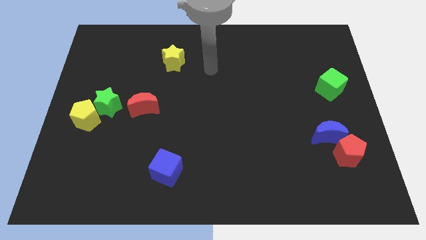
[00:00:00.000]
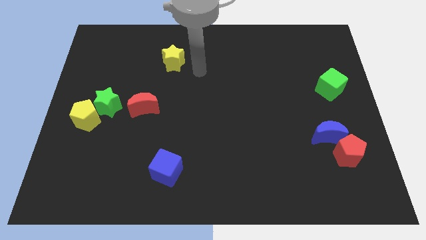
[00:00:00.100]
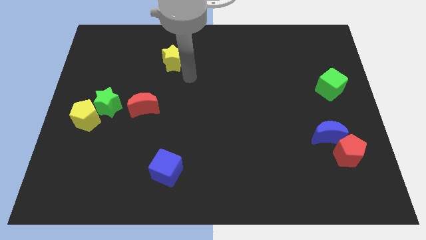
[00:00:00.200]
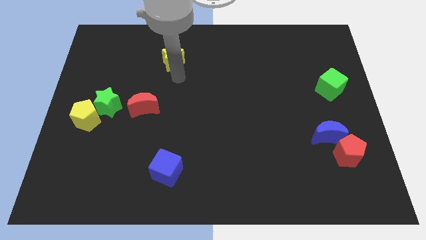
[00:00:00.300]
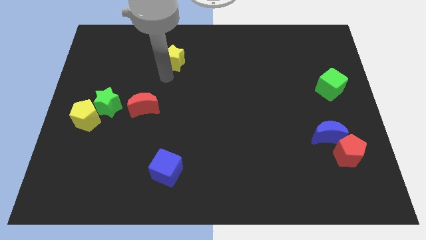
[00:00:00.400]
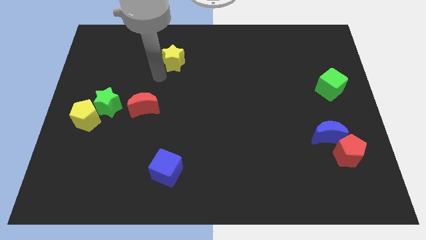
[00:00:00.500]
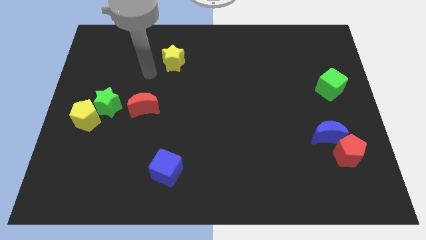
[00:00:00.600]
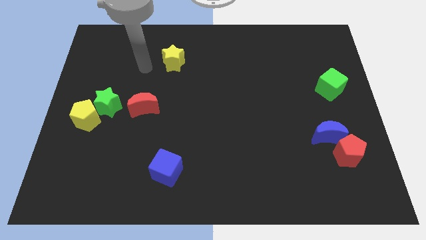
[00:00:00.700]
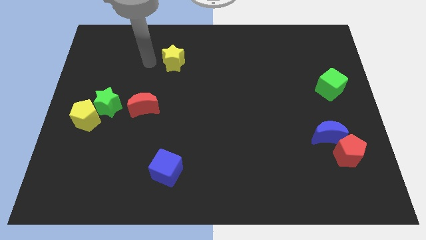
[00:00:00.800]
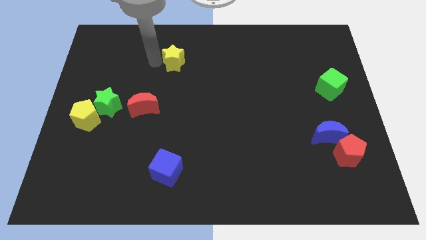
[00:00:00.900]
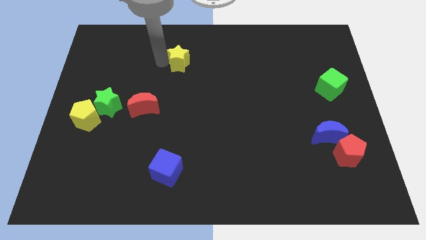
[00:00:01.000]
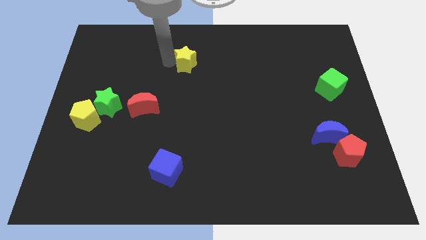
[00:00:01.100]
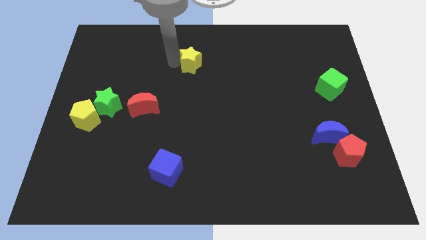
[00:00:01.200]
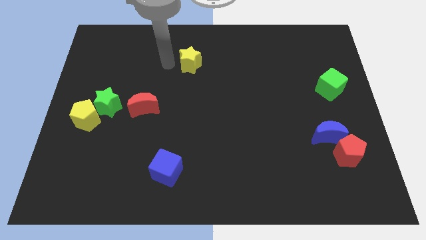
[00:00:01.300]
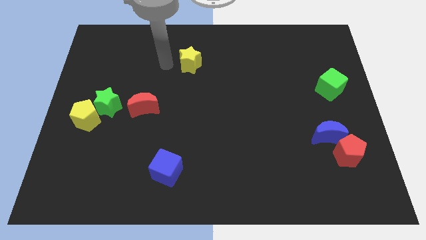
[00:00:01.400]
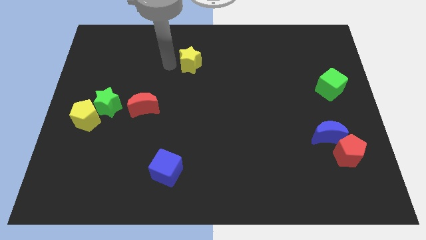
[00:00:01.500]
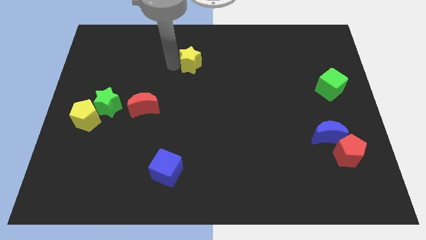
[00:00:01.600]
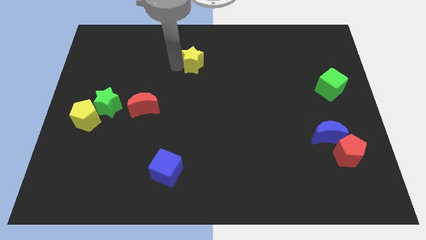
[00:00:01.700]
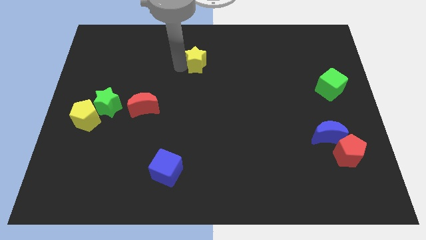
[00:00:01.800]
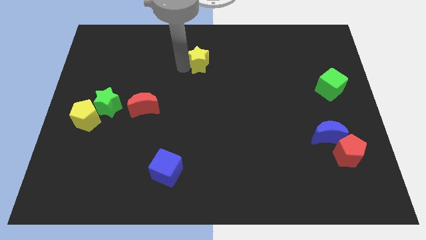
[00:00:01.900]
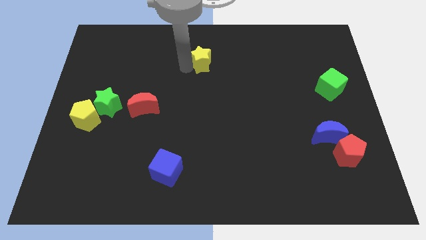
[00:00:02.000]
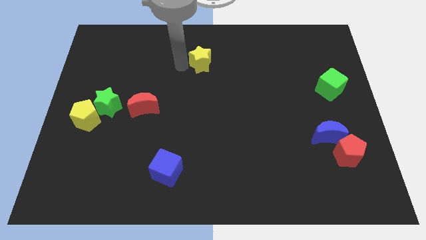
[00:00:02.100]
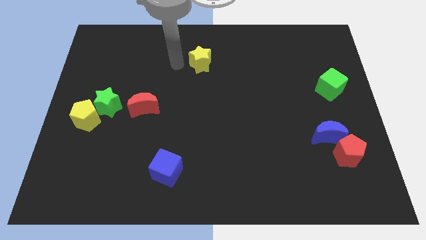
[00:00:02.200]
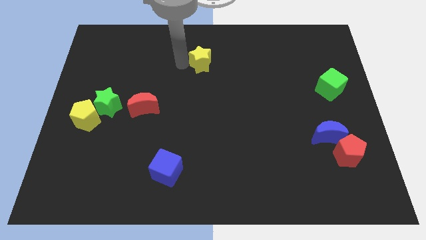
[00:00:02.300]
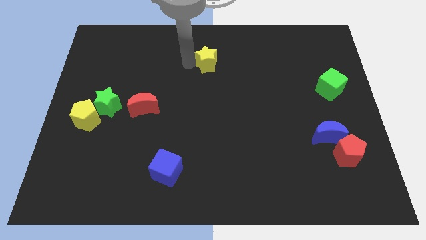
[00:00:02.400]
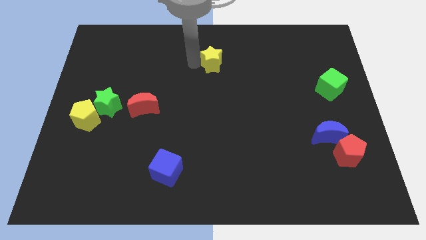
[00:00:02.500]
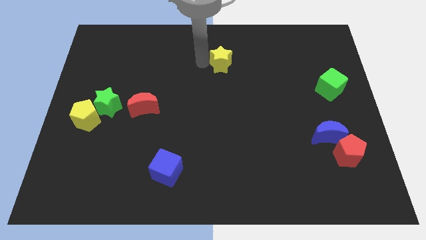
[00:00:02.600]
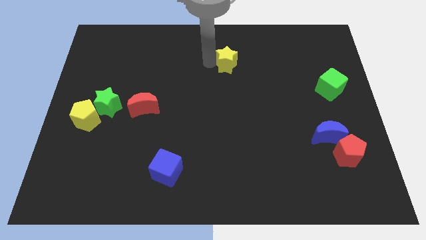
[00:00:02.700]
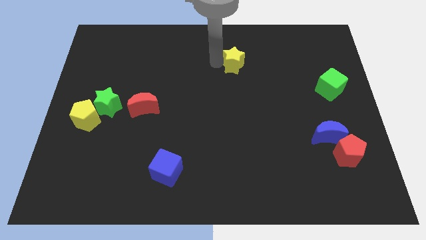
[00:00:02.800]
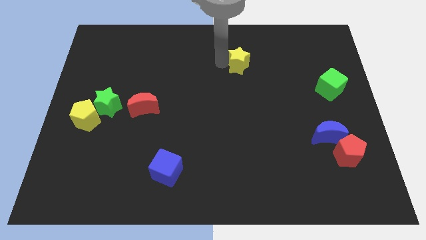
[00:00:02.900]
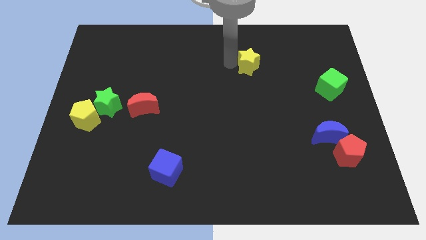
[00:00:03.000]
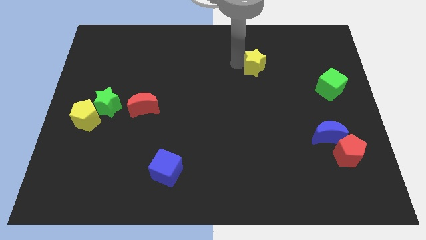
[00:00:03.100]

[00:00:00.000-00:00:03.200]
slide the yellow star to the right

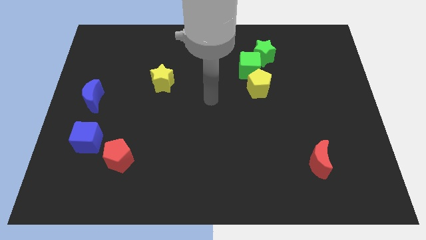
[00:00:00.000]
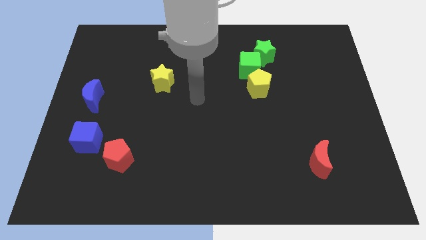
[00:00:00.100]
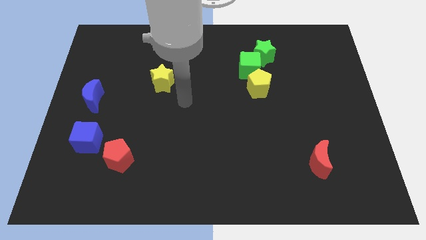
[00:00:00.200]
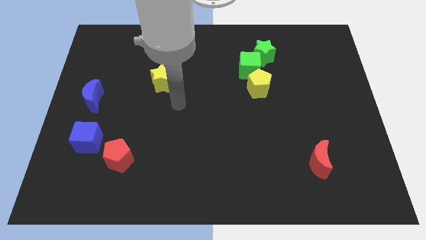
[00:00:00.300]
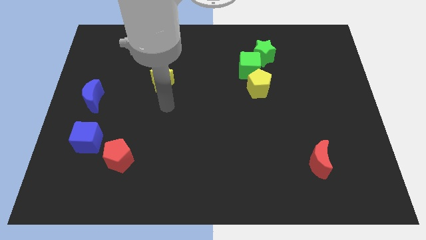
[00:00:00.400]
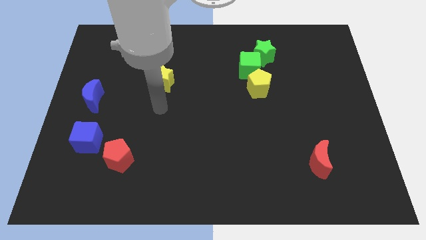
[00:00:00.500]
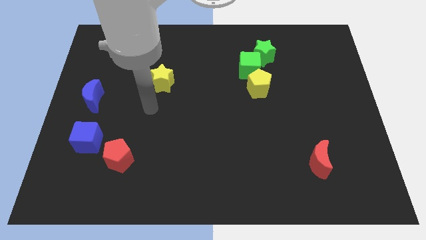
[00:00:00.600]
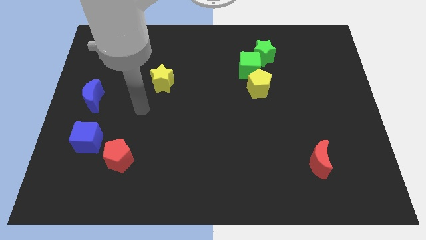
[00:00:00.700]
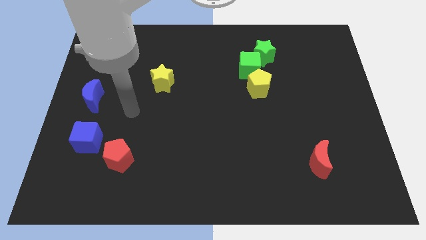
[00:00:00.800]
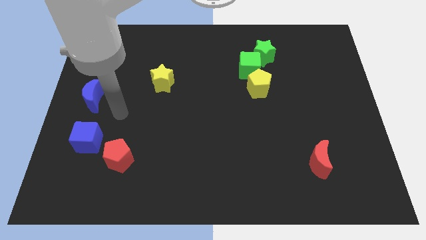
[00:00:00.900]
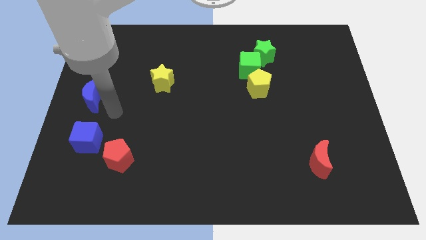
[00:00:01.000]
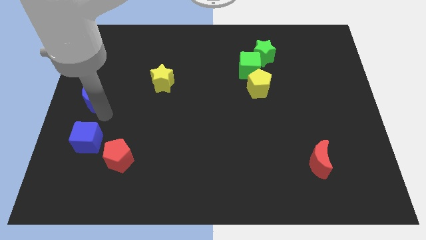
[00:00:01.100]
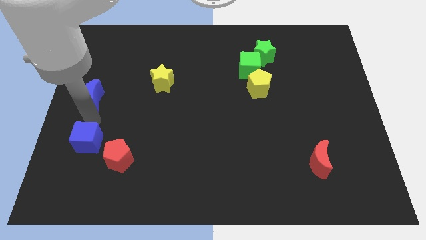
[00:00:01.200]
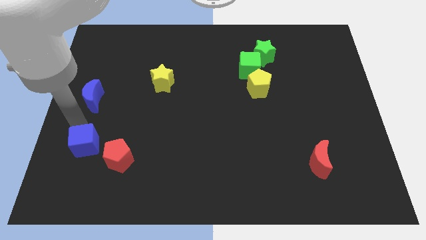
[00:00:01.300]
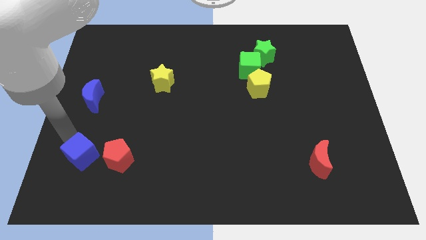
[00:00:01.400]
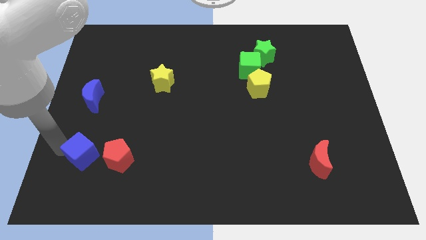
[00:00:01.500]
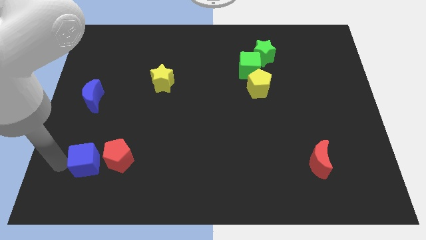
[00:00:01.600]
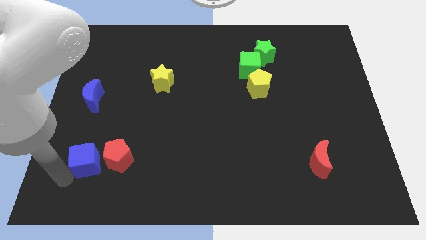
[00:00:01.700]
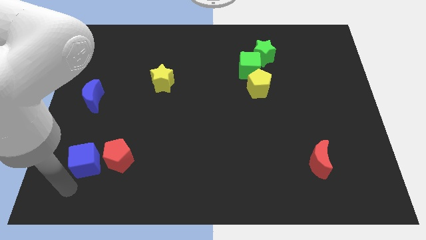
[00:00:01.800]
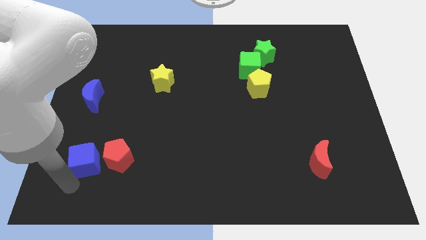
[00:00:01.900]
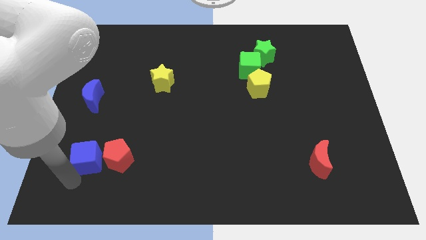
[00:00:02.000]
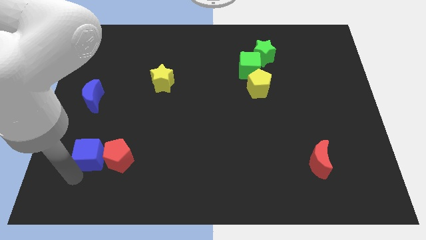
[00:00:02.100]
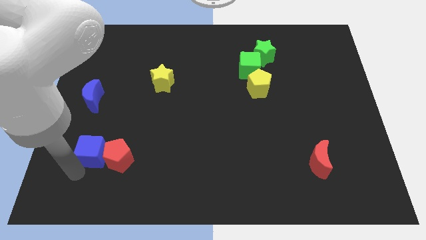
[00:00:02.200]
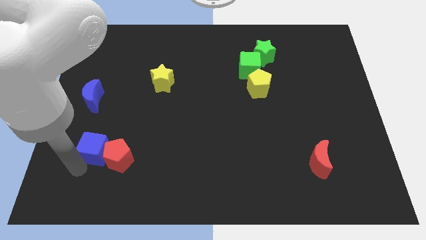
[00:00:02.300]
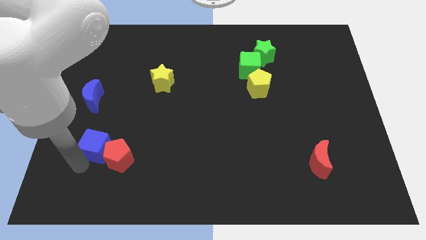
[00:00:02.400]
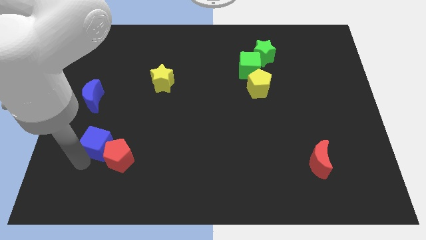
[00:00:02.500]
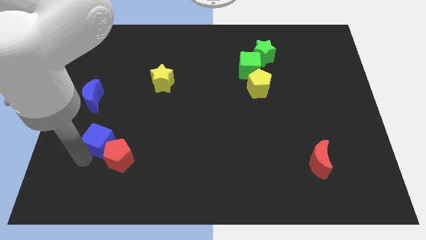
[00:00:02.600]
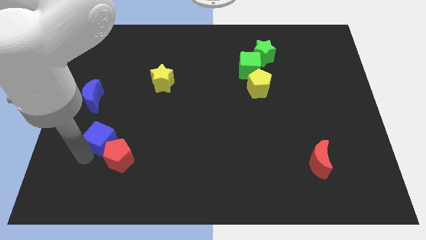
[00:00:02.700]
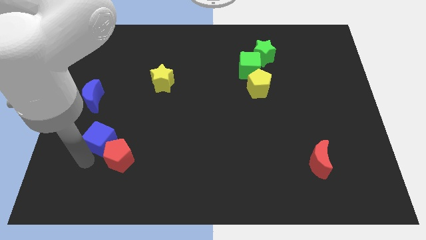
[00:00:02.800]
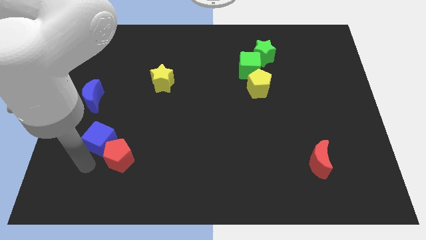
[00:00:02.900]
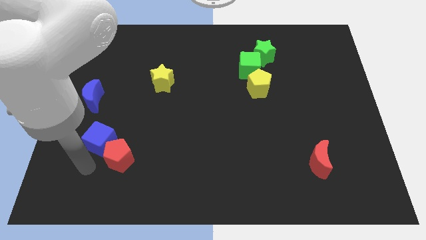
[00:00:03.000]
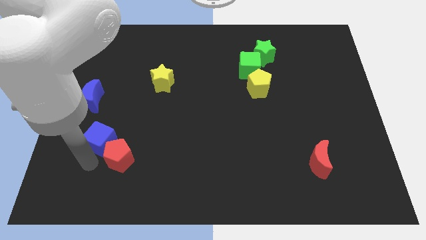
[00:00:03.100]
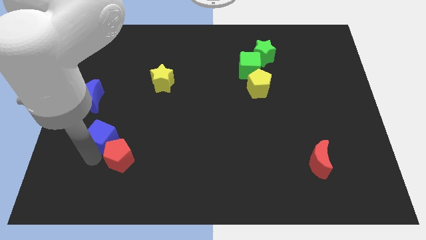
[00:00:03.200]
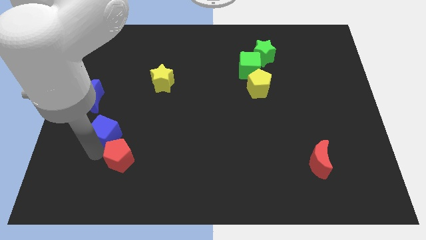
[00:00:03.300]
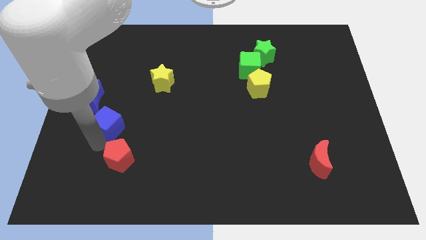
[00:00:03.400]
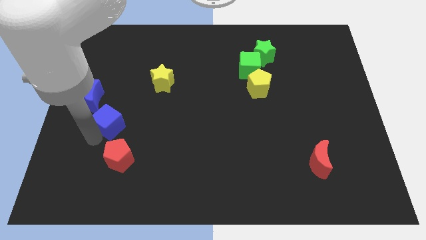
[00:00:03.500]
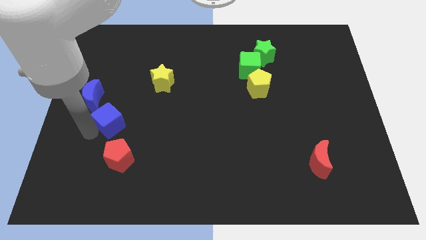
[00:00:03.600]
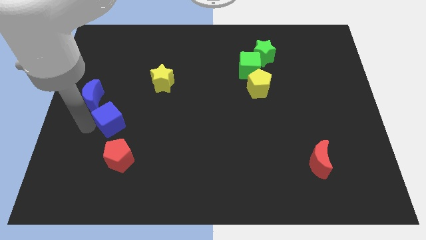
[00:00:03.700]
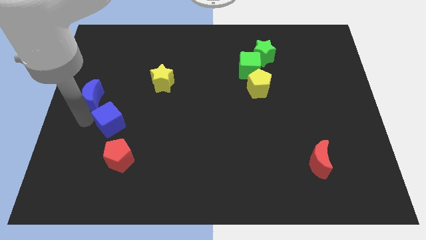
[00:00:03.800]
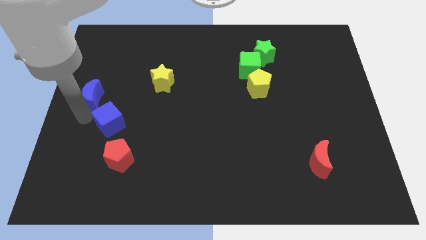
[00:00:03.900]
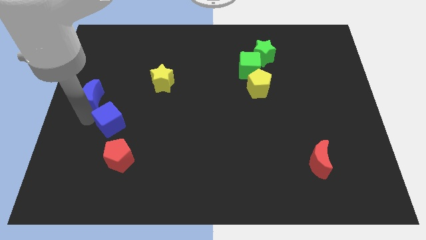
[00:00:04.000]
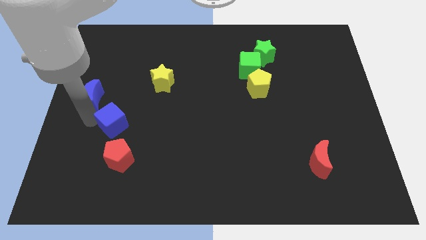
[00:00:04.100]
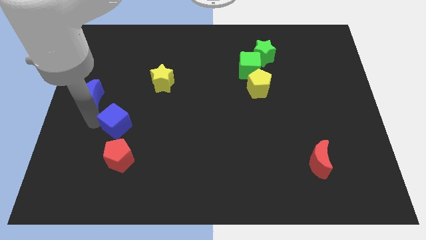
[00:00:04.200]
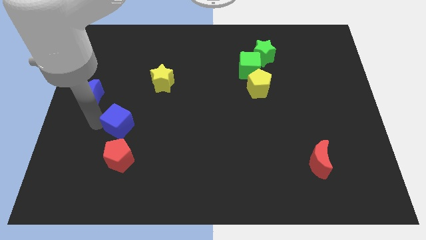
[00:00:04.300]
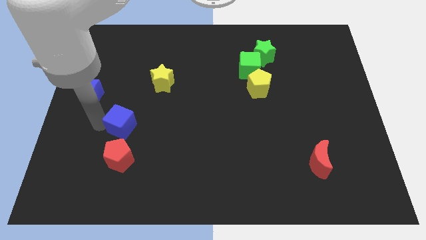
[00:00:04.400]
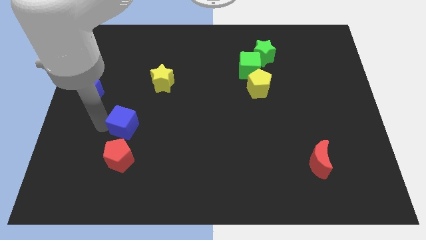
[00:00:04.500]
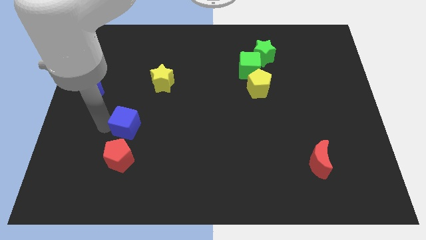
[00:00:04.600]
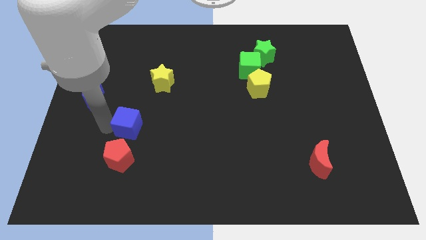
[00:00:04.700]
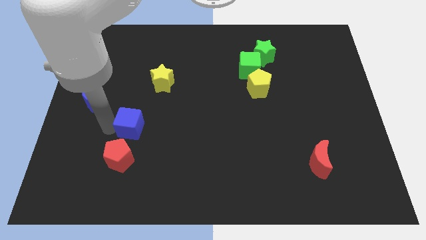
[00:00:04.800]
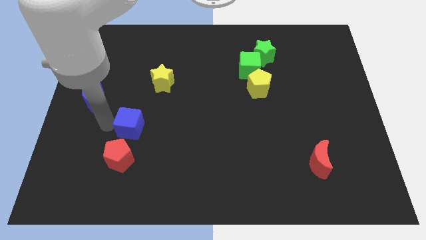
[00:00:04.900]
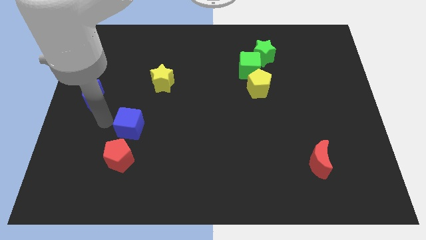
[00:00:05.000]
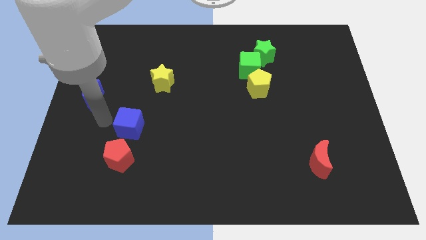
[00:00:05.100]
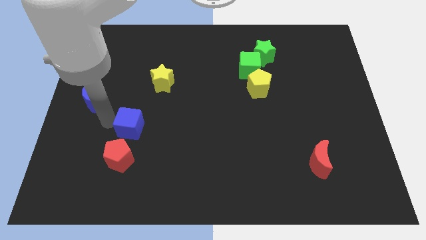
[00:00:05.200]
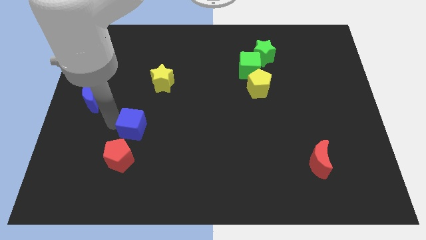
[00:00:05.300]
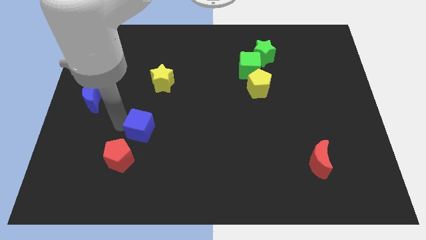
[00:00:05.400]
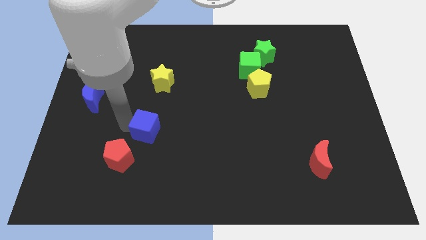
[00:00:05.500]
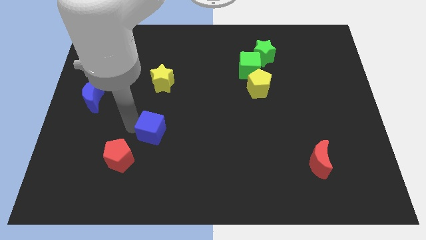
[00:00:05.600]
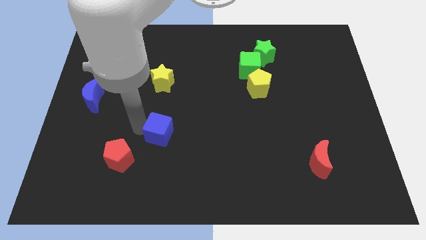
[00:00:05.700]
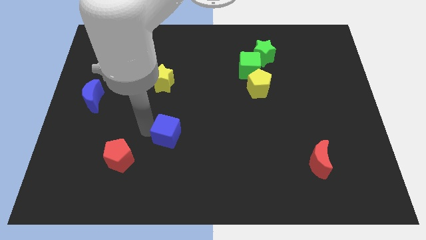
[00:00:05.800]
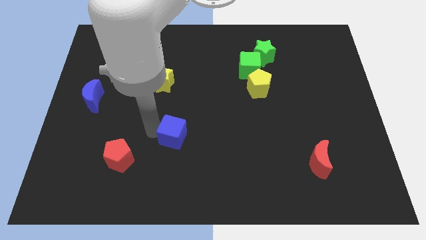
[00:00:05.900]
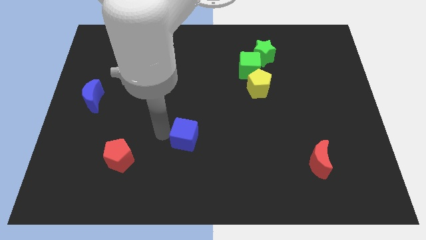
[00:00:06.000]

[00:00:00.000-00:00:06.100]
move the blue cube right
